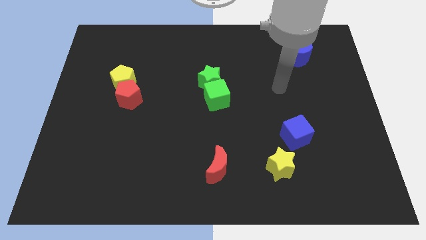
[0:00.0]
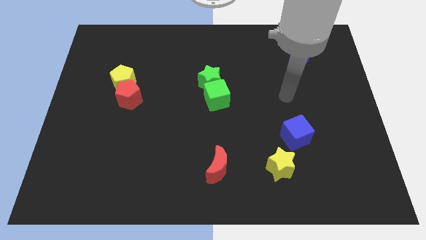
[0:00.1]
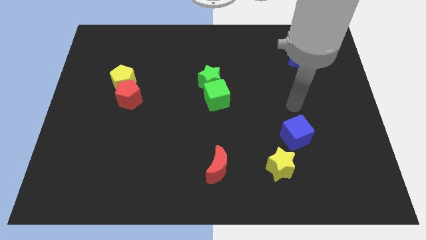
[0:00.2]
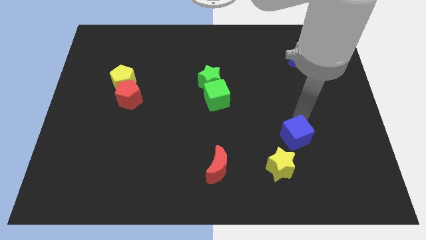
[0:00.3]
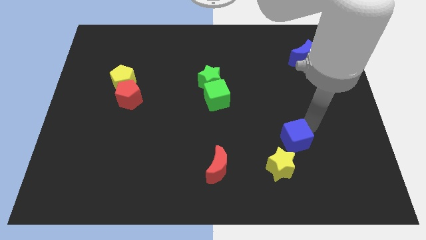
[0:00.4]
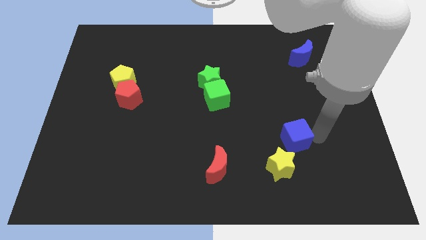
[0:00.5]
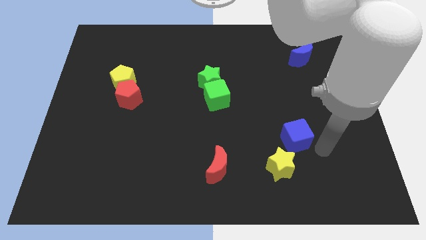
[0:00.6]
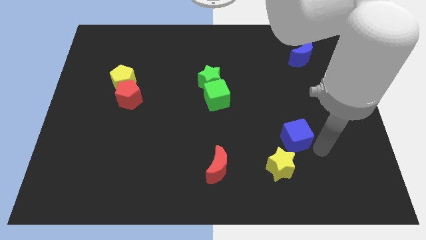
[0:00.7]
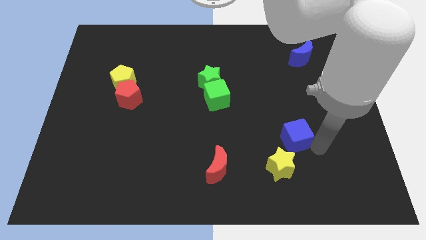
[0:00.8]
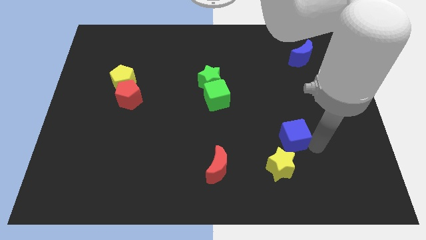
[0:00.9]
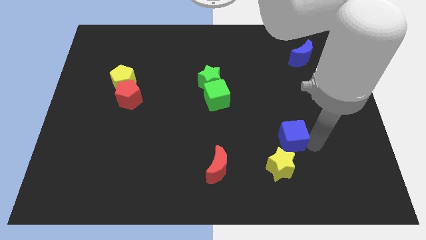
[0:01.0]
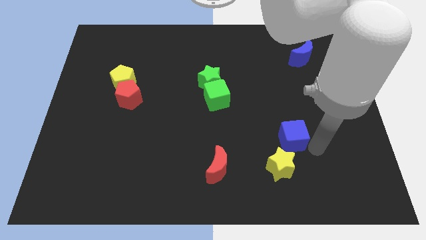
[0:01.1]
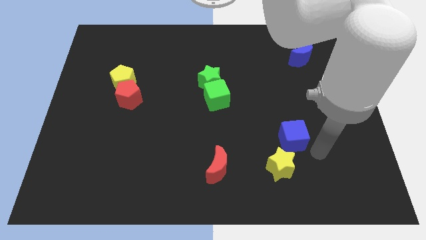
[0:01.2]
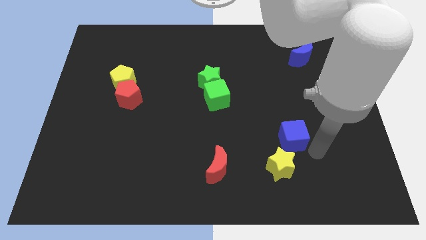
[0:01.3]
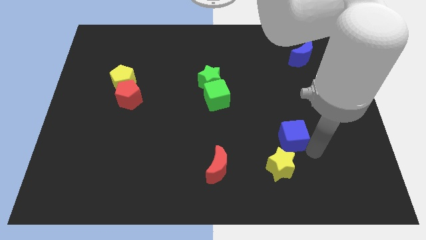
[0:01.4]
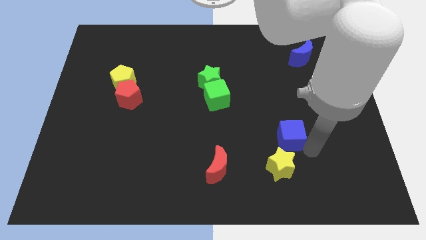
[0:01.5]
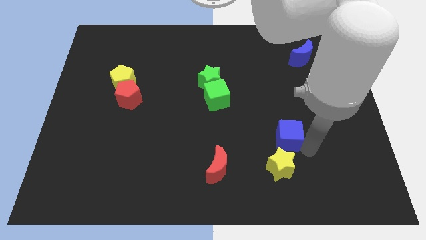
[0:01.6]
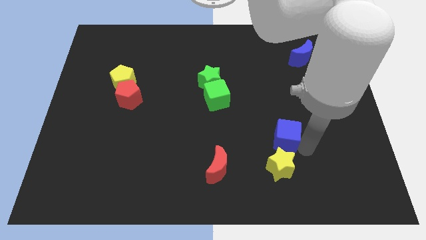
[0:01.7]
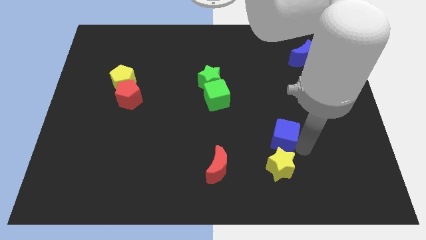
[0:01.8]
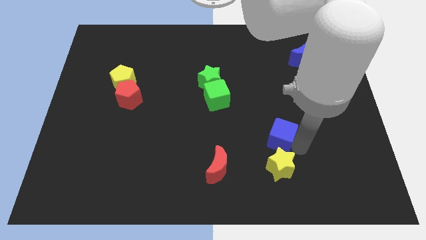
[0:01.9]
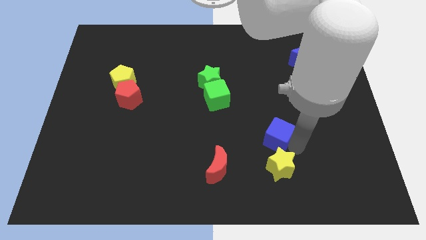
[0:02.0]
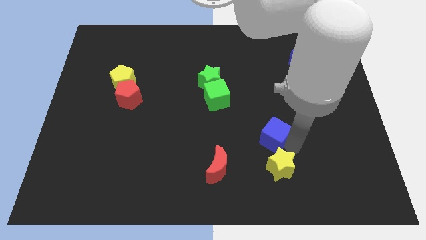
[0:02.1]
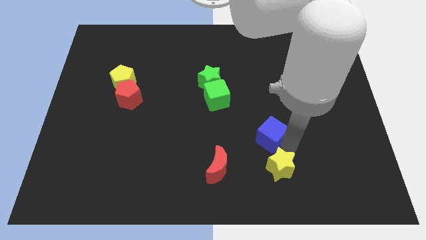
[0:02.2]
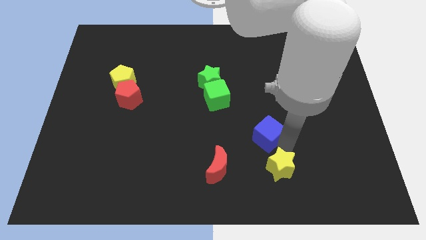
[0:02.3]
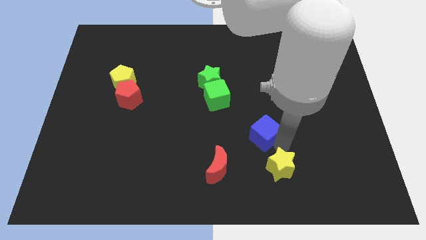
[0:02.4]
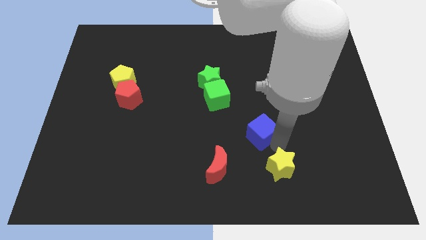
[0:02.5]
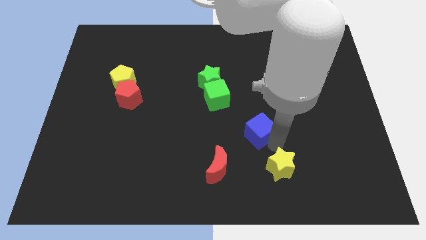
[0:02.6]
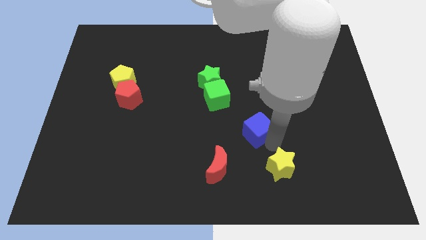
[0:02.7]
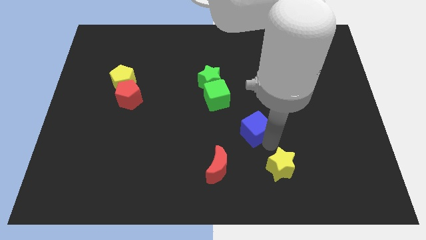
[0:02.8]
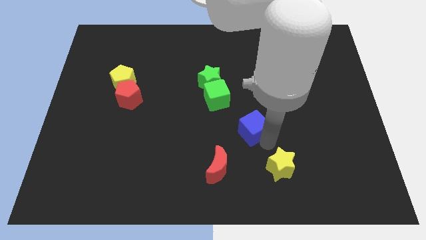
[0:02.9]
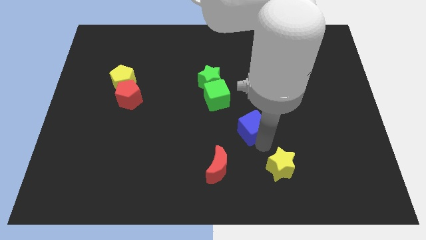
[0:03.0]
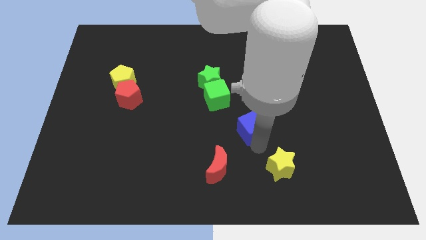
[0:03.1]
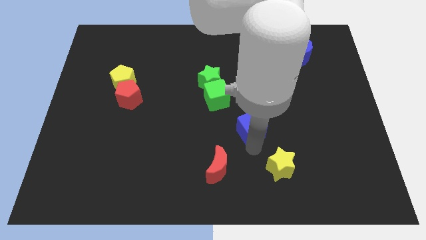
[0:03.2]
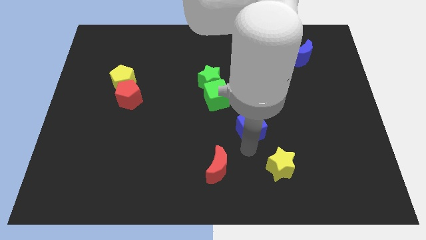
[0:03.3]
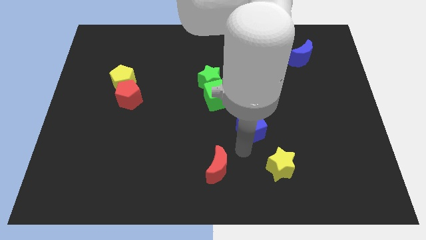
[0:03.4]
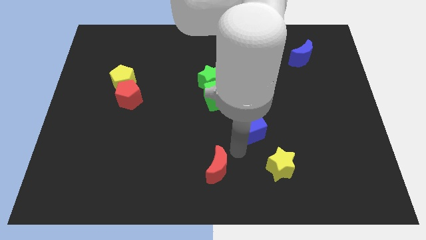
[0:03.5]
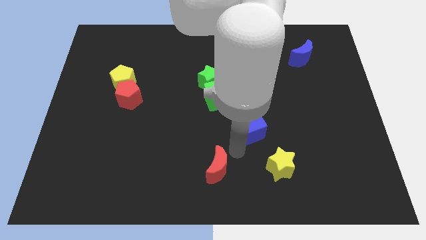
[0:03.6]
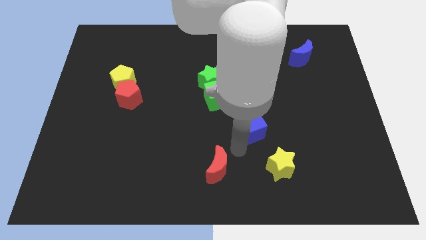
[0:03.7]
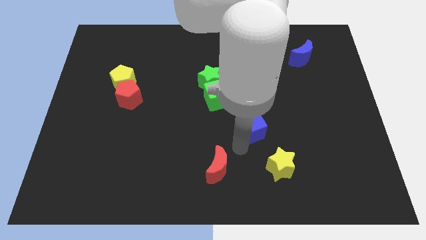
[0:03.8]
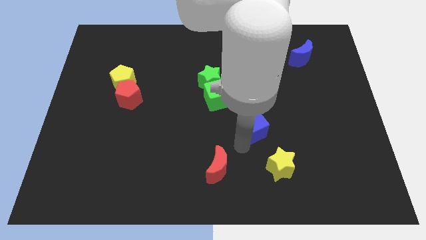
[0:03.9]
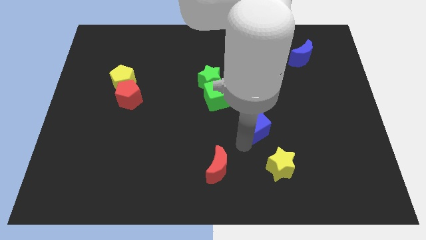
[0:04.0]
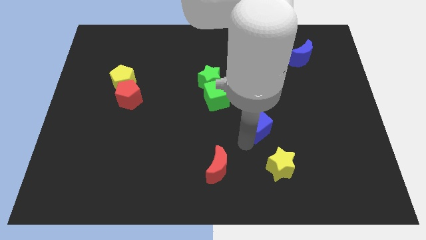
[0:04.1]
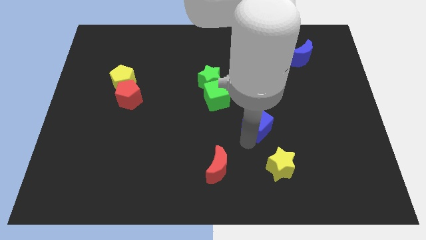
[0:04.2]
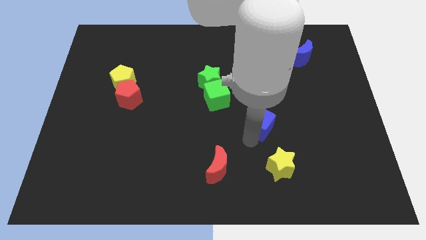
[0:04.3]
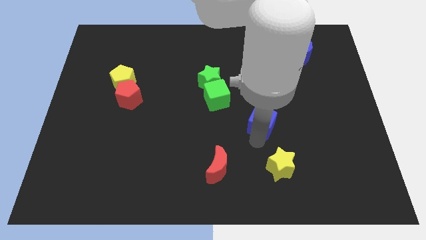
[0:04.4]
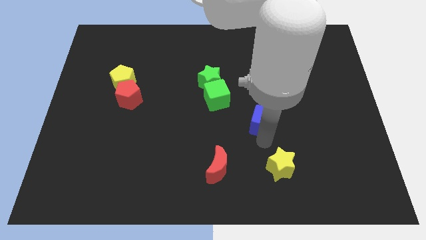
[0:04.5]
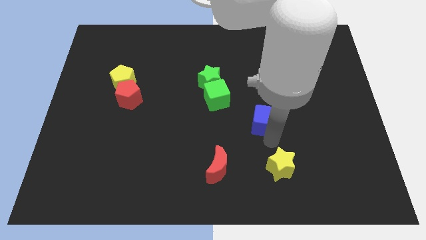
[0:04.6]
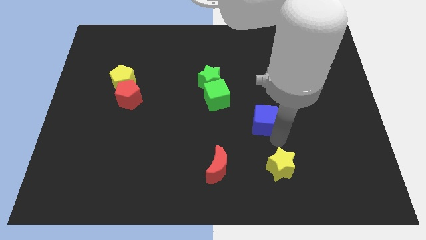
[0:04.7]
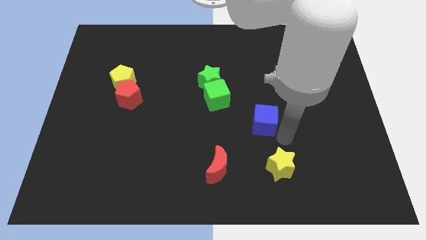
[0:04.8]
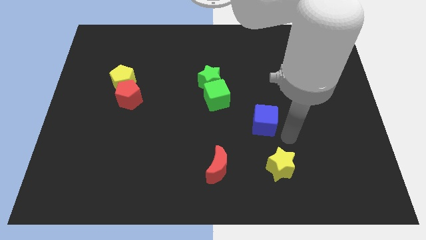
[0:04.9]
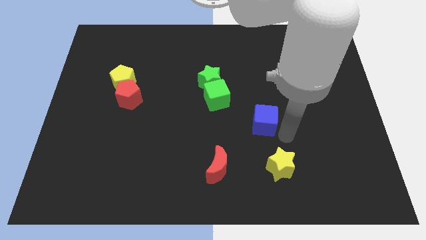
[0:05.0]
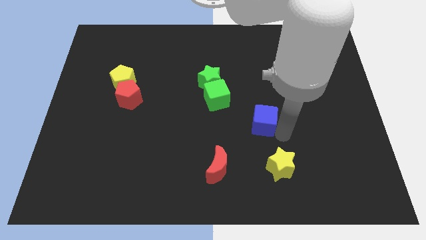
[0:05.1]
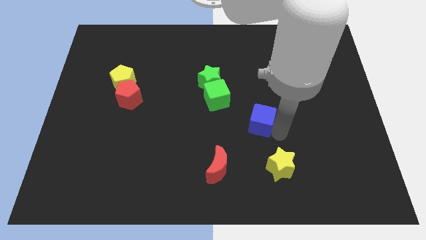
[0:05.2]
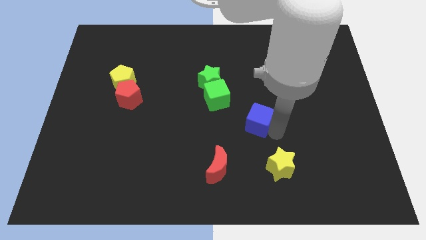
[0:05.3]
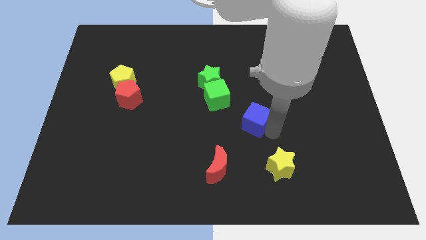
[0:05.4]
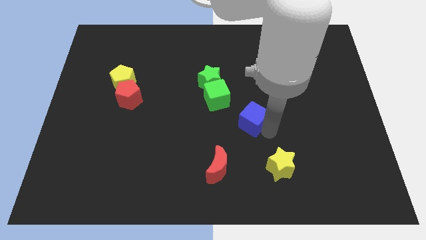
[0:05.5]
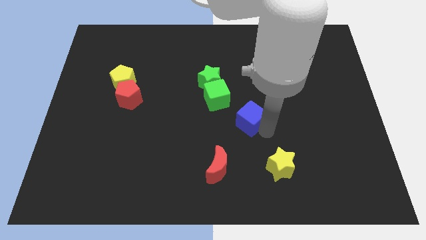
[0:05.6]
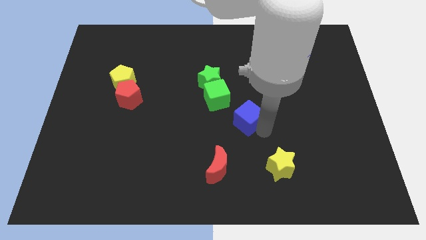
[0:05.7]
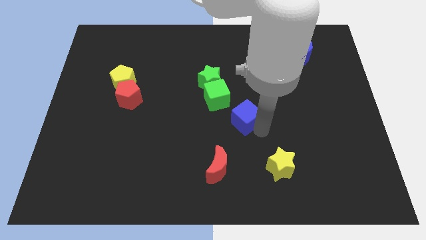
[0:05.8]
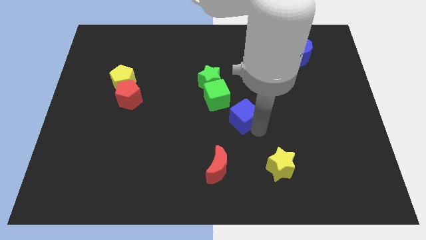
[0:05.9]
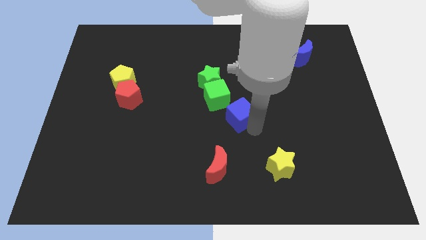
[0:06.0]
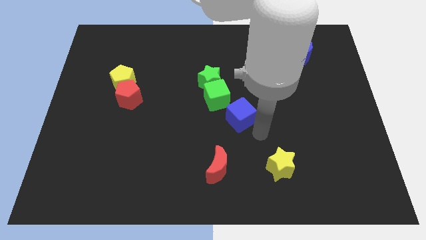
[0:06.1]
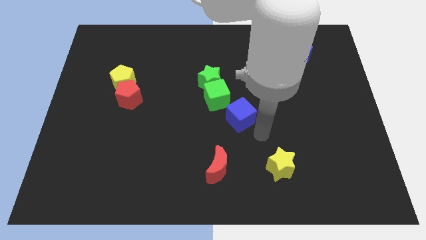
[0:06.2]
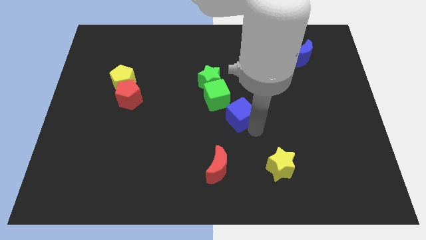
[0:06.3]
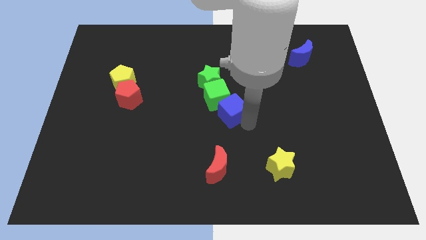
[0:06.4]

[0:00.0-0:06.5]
move the blue cube next to the green cube

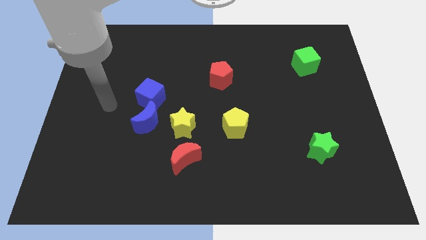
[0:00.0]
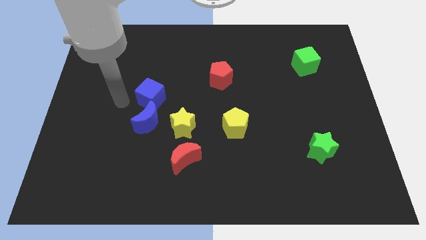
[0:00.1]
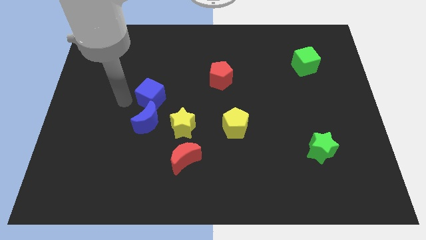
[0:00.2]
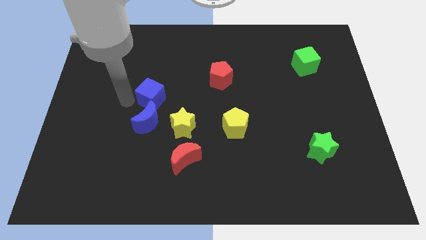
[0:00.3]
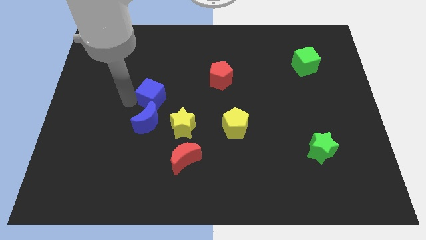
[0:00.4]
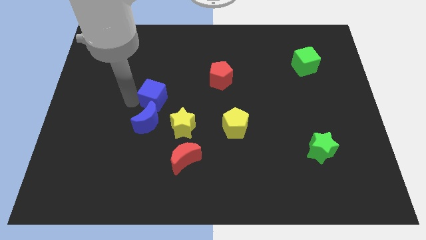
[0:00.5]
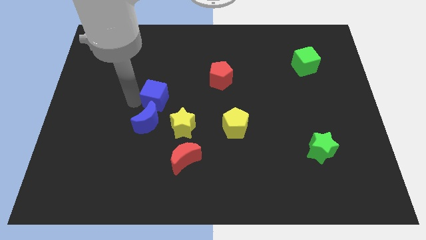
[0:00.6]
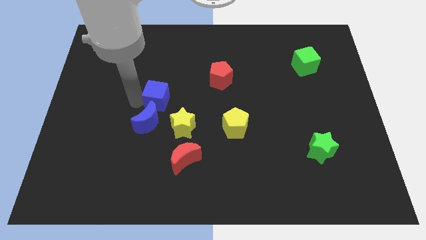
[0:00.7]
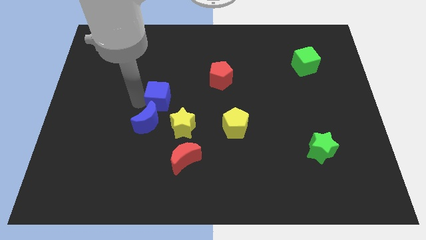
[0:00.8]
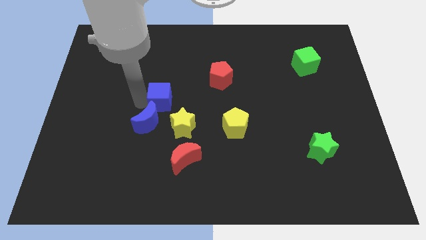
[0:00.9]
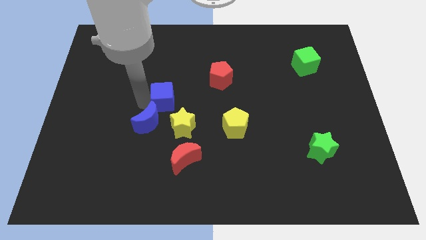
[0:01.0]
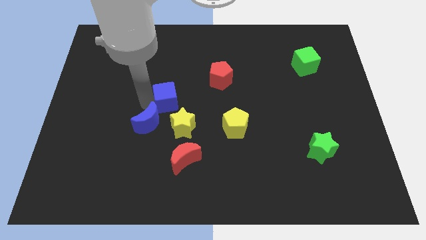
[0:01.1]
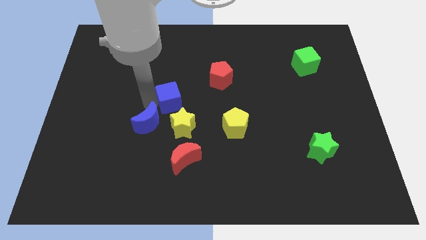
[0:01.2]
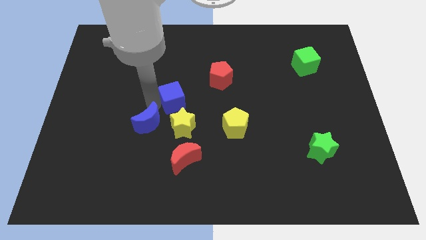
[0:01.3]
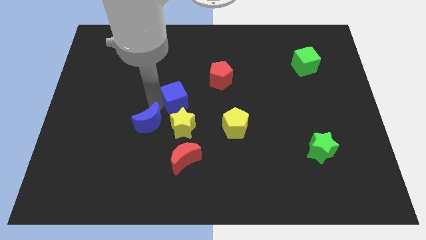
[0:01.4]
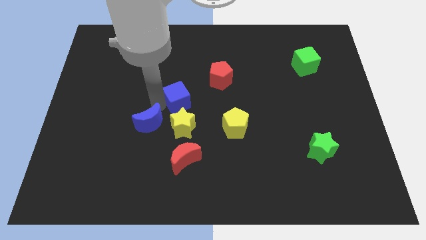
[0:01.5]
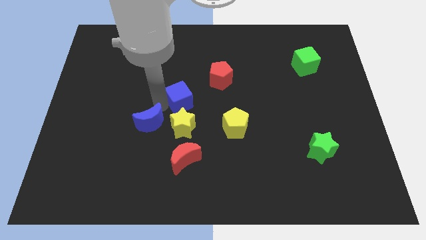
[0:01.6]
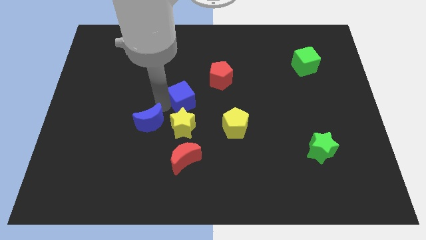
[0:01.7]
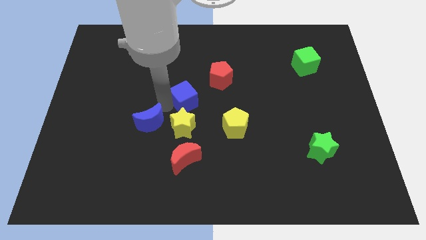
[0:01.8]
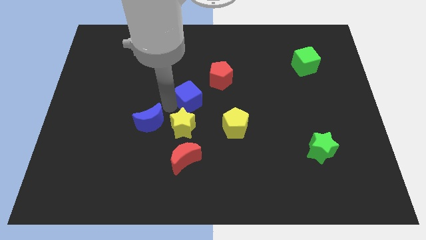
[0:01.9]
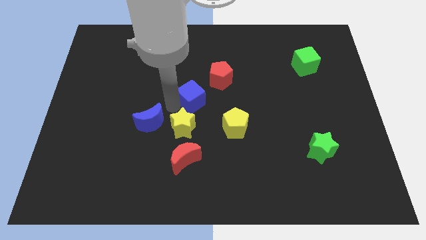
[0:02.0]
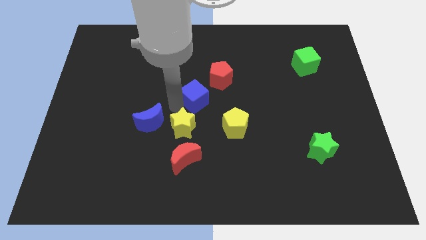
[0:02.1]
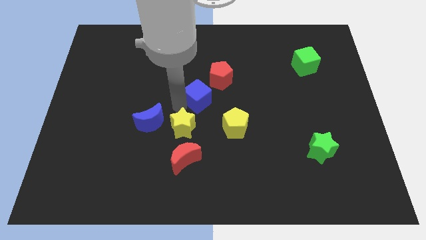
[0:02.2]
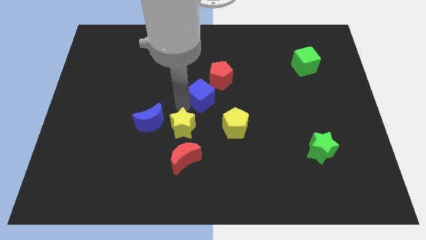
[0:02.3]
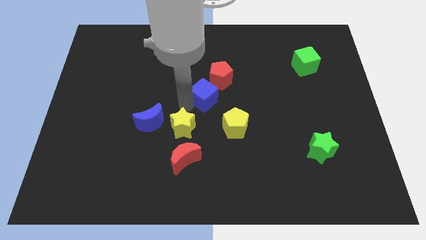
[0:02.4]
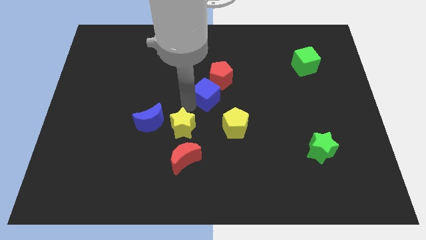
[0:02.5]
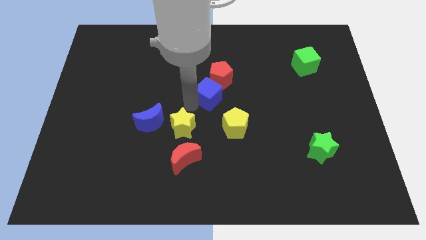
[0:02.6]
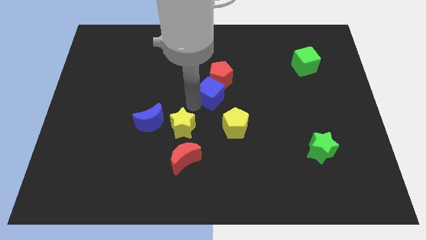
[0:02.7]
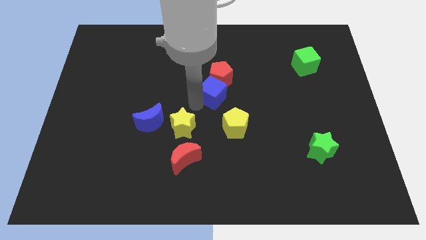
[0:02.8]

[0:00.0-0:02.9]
push the blue cube next to the red pentagon
